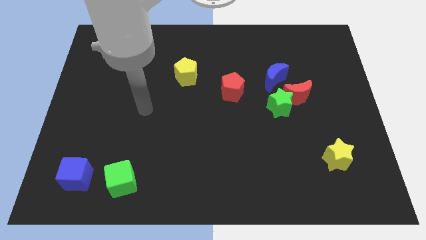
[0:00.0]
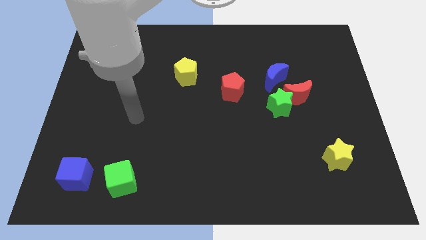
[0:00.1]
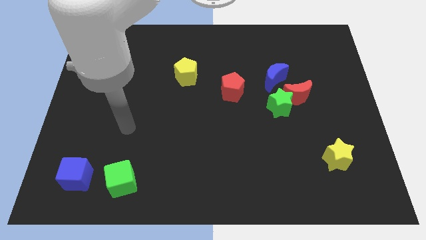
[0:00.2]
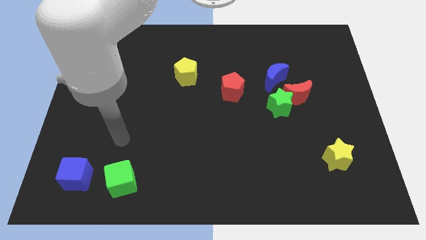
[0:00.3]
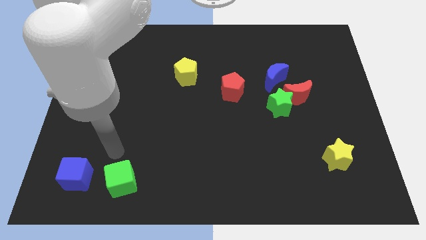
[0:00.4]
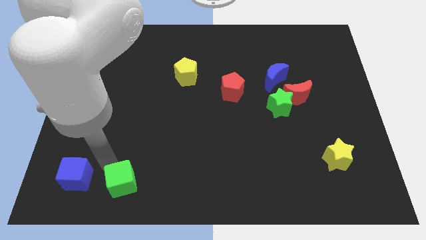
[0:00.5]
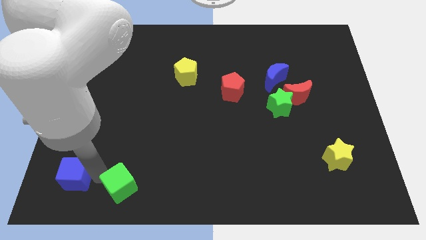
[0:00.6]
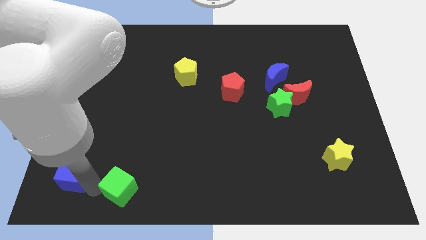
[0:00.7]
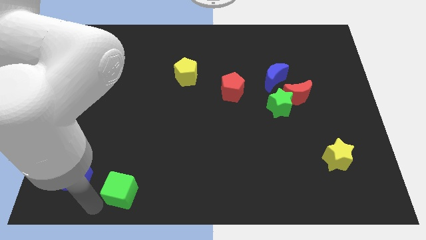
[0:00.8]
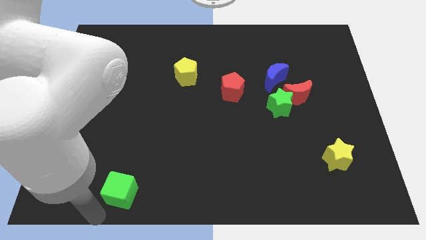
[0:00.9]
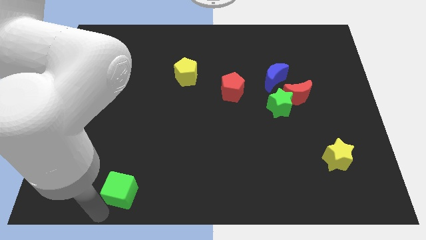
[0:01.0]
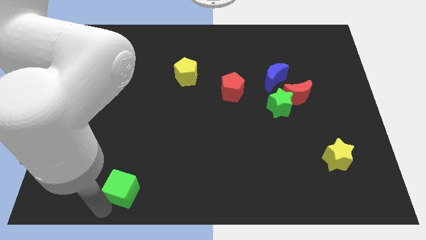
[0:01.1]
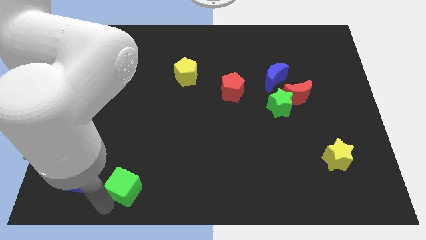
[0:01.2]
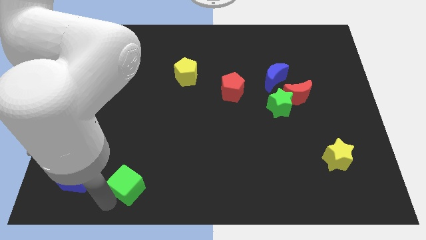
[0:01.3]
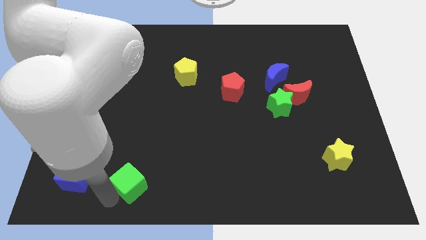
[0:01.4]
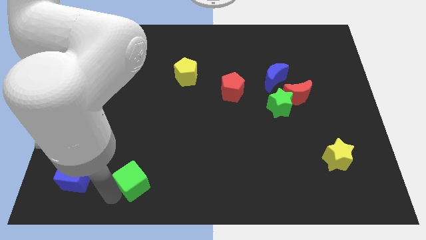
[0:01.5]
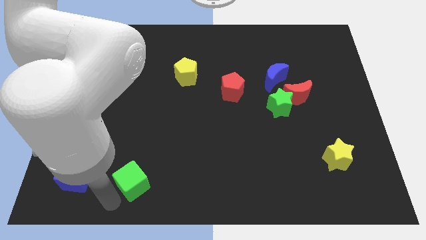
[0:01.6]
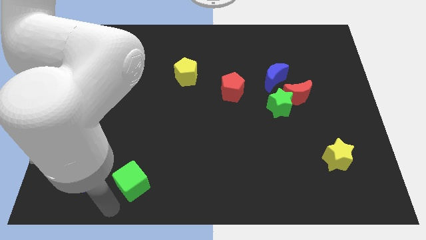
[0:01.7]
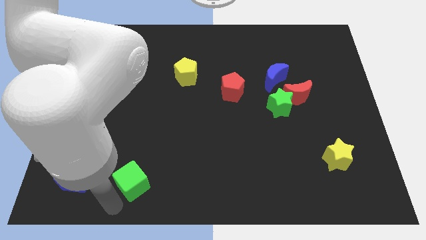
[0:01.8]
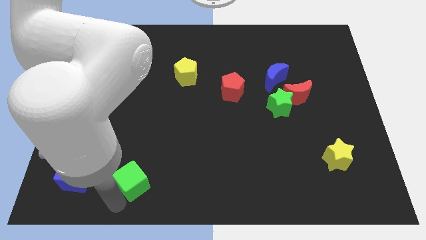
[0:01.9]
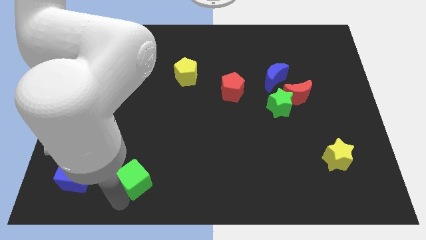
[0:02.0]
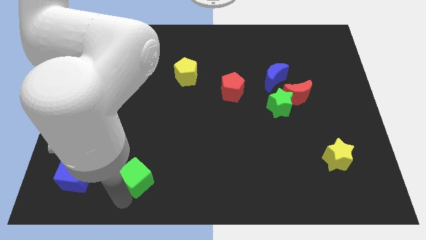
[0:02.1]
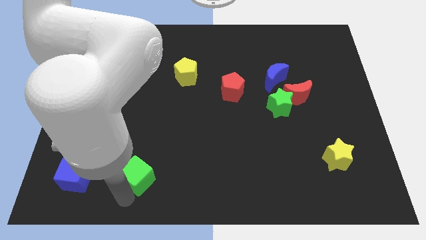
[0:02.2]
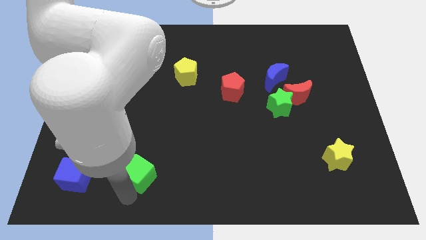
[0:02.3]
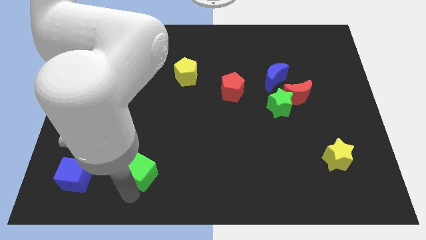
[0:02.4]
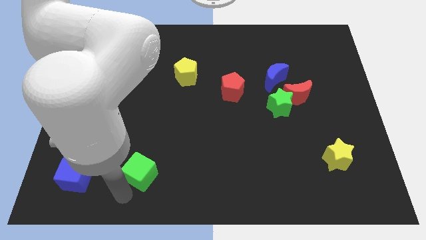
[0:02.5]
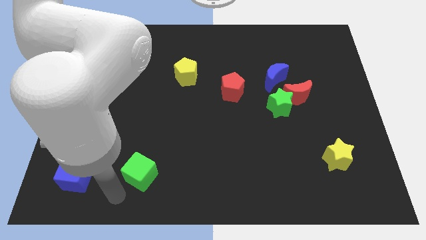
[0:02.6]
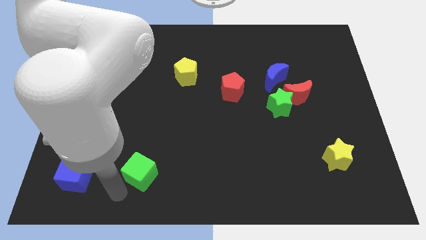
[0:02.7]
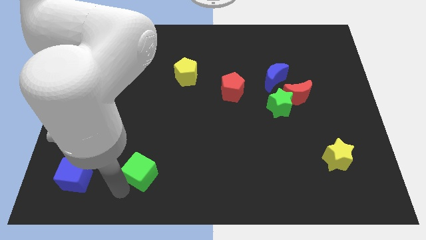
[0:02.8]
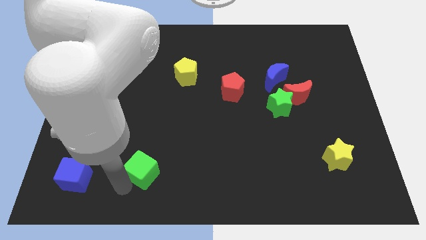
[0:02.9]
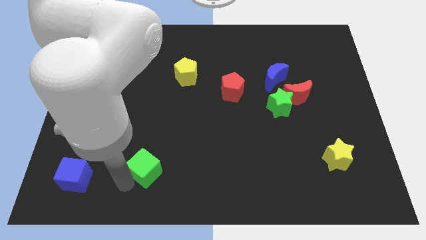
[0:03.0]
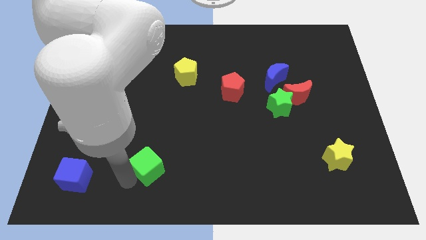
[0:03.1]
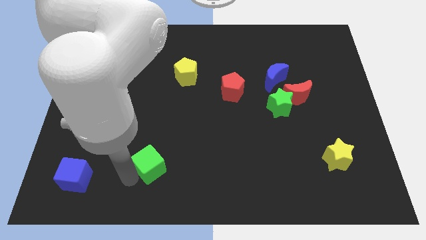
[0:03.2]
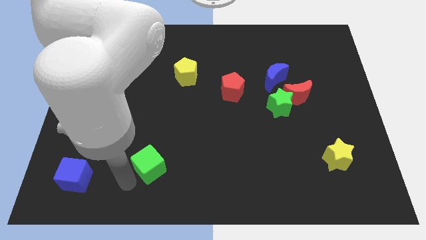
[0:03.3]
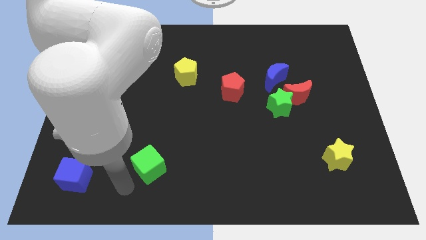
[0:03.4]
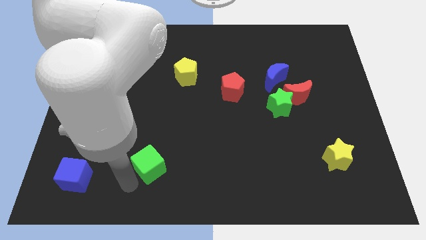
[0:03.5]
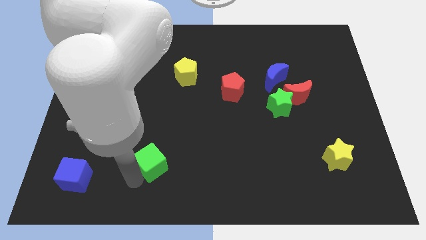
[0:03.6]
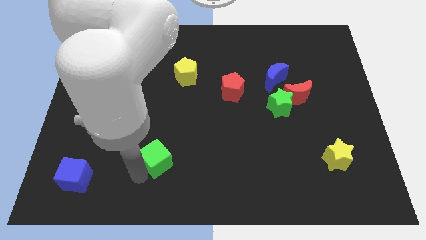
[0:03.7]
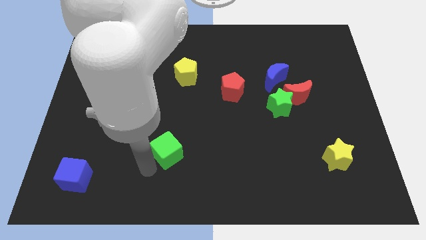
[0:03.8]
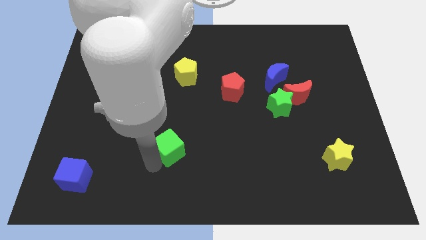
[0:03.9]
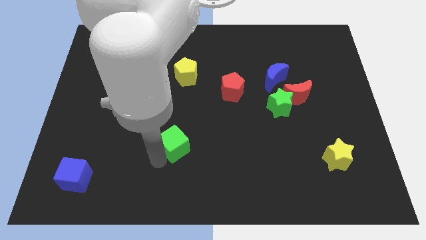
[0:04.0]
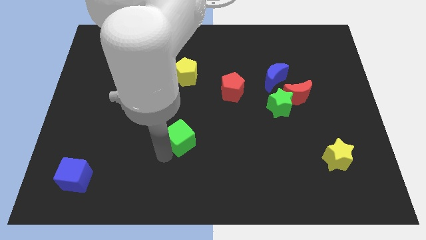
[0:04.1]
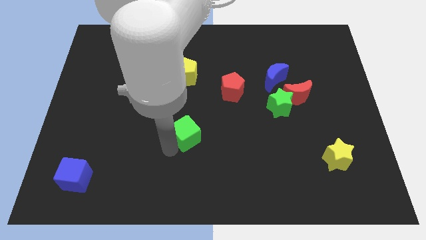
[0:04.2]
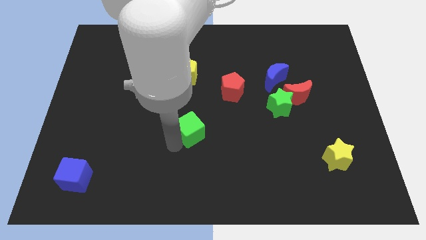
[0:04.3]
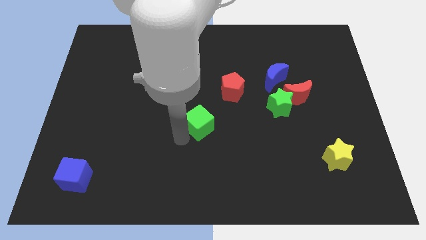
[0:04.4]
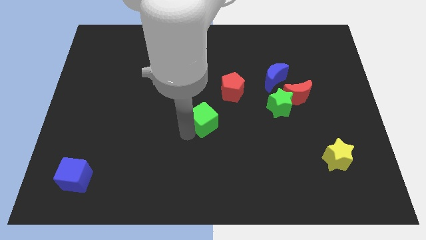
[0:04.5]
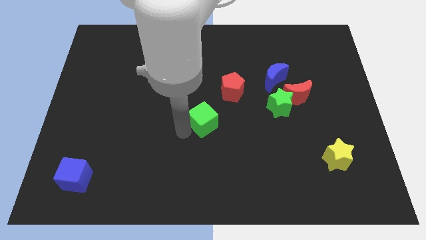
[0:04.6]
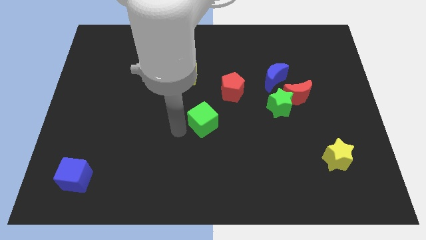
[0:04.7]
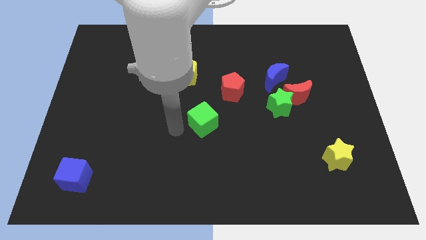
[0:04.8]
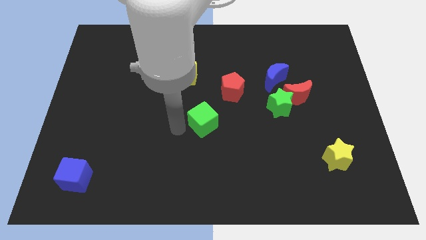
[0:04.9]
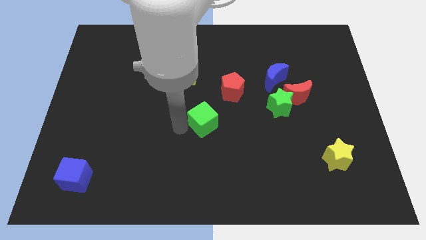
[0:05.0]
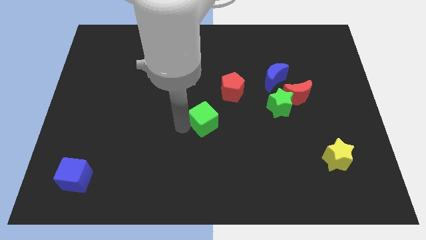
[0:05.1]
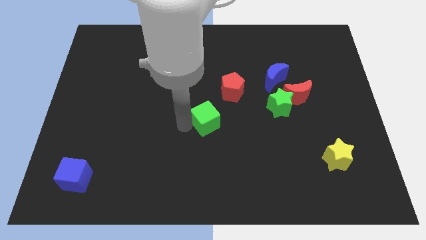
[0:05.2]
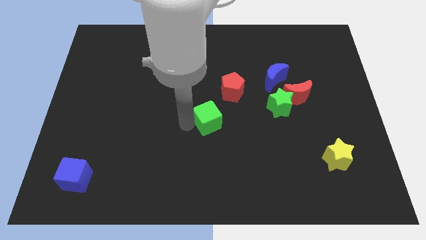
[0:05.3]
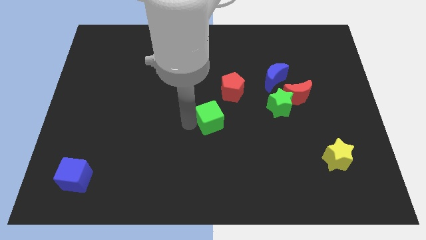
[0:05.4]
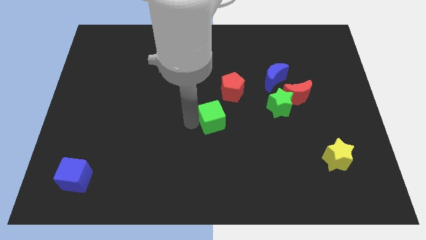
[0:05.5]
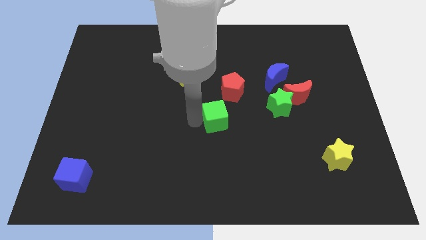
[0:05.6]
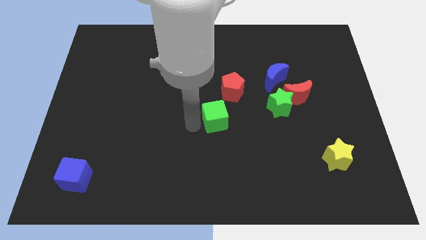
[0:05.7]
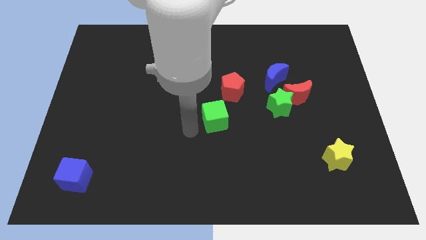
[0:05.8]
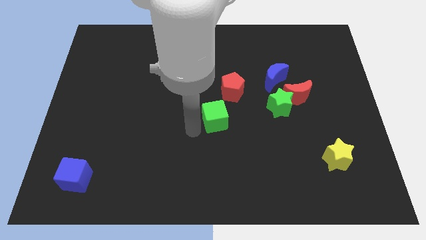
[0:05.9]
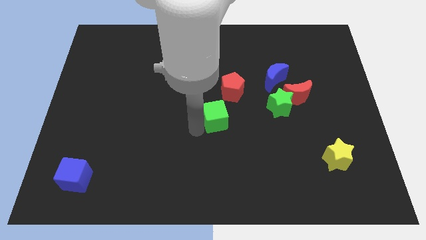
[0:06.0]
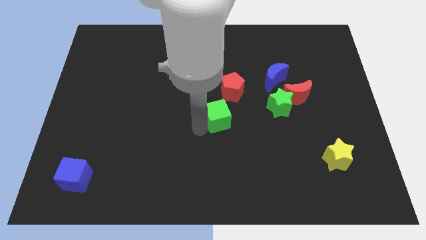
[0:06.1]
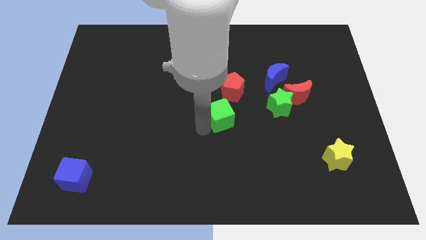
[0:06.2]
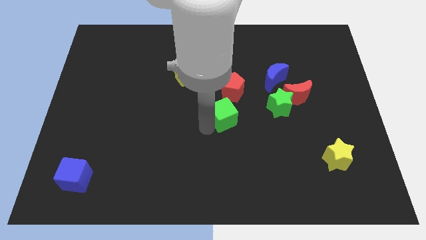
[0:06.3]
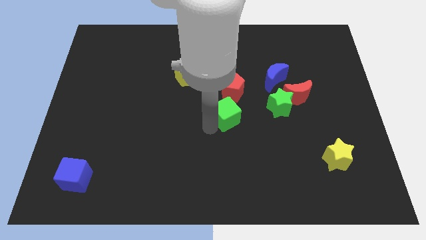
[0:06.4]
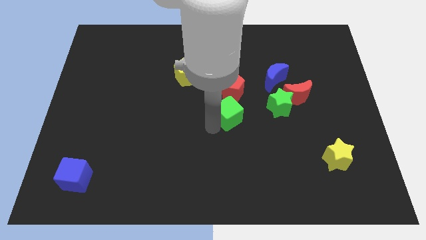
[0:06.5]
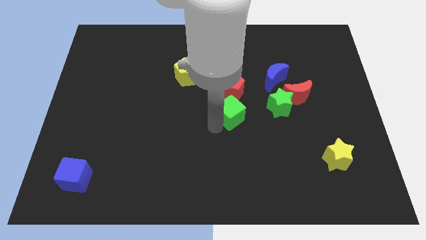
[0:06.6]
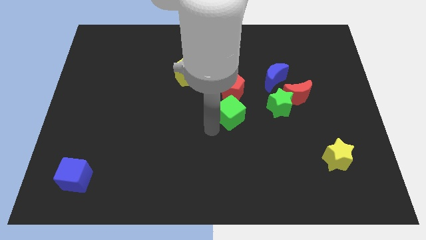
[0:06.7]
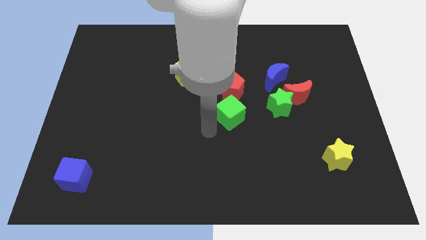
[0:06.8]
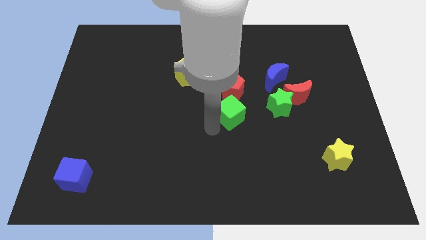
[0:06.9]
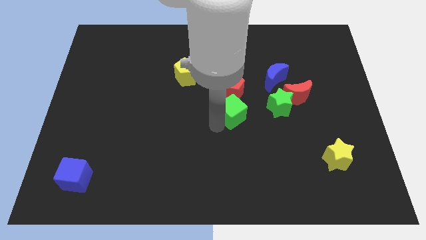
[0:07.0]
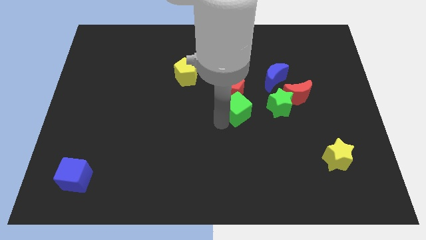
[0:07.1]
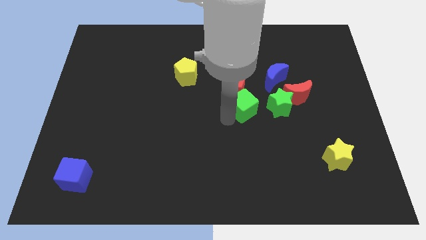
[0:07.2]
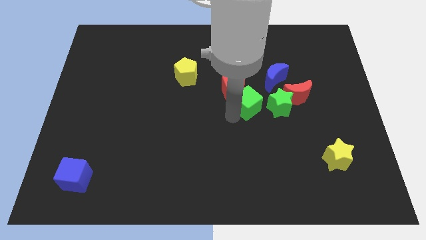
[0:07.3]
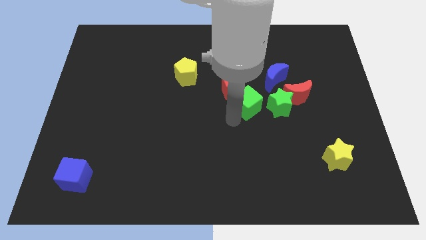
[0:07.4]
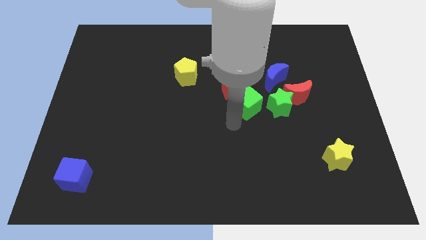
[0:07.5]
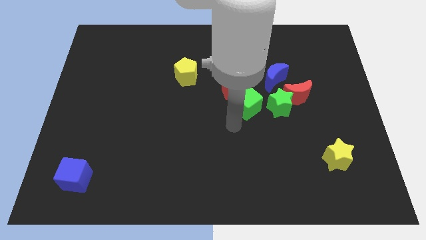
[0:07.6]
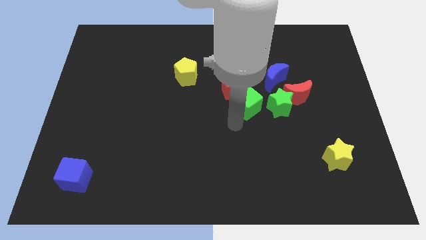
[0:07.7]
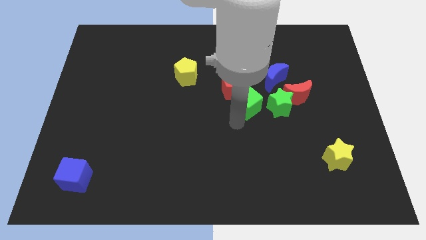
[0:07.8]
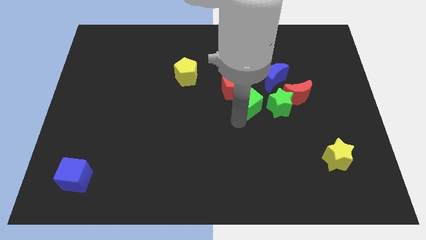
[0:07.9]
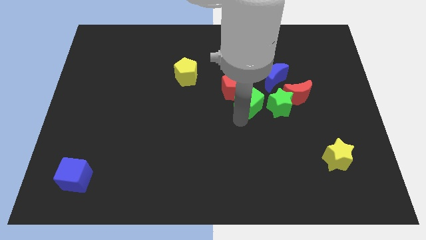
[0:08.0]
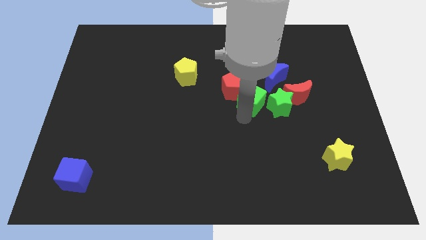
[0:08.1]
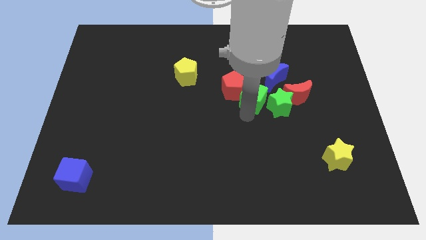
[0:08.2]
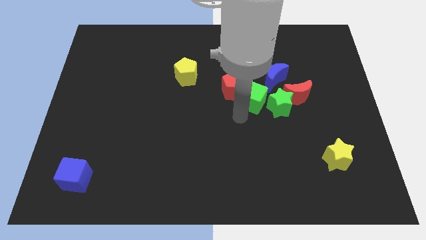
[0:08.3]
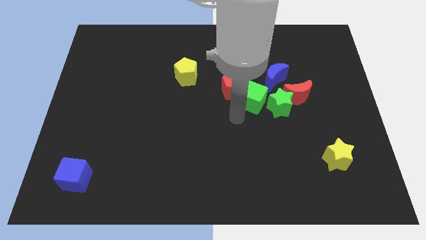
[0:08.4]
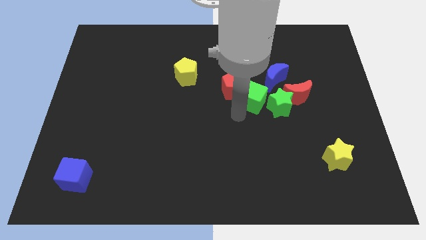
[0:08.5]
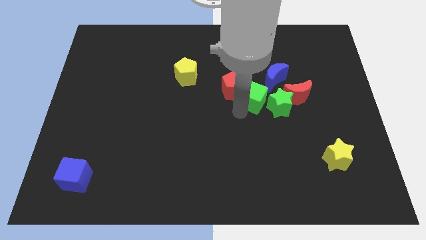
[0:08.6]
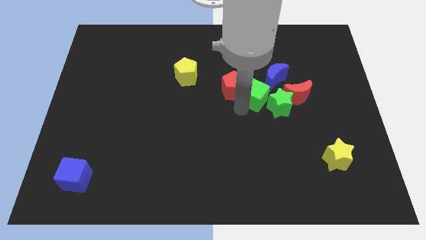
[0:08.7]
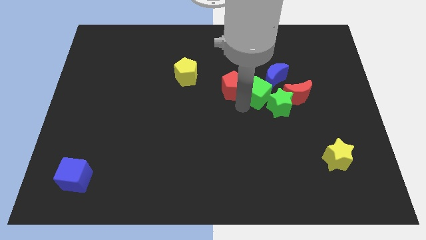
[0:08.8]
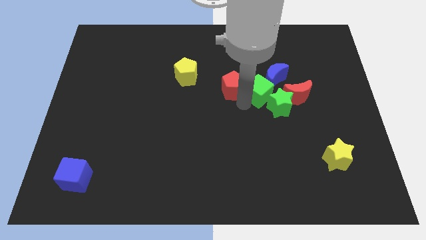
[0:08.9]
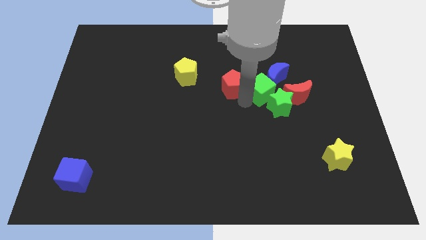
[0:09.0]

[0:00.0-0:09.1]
put the green cube next to the blue moon
